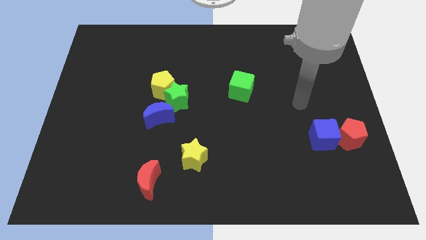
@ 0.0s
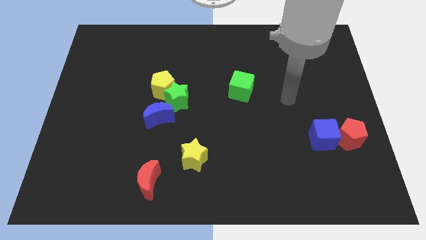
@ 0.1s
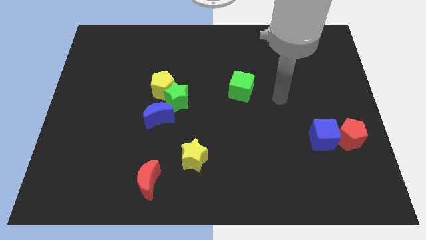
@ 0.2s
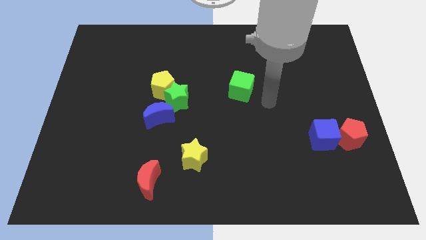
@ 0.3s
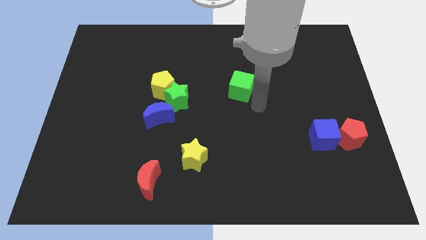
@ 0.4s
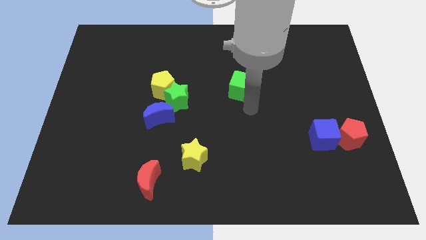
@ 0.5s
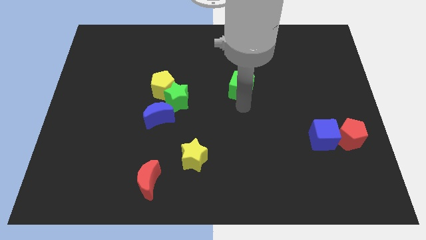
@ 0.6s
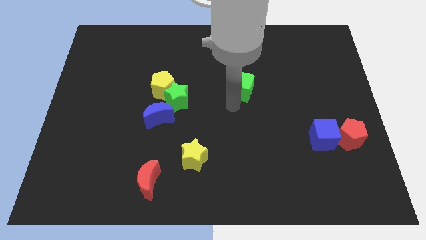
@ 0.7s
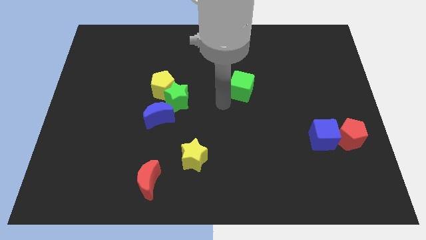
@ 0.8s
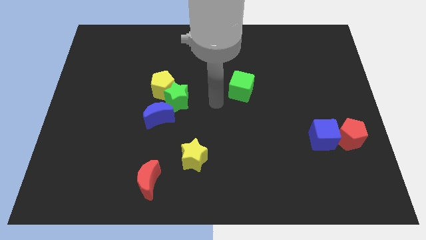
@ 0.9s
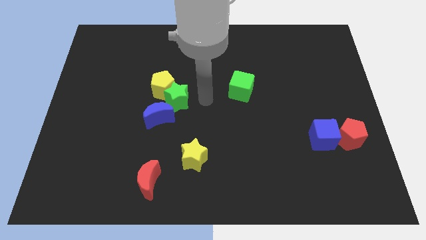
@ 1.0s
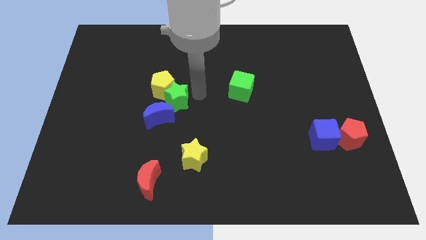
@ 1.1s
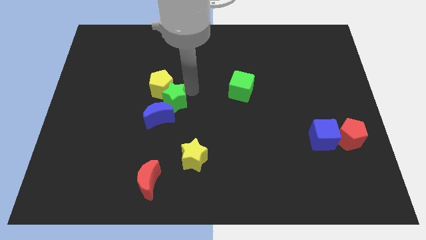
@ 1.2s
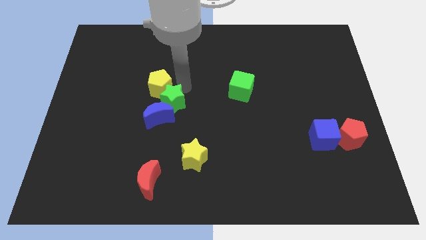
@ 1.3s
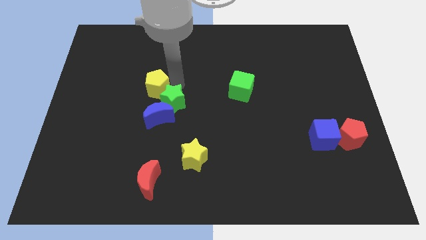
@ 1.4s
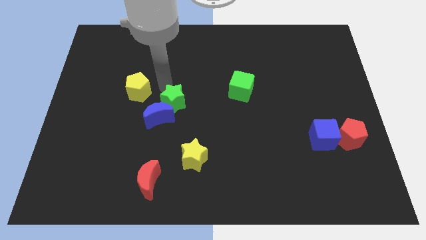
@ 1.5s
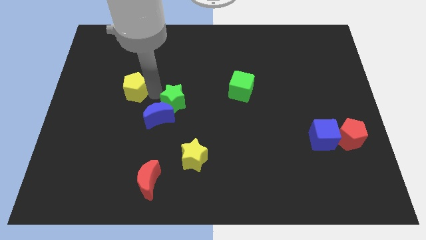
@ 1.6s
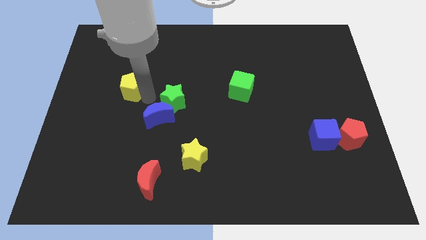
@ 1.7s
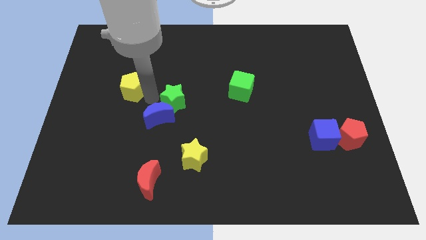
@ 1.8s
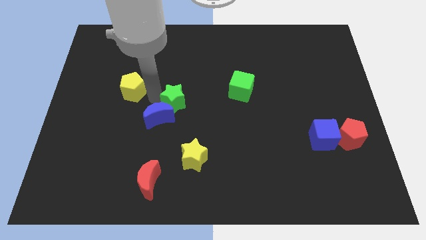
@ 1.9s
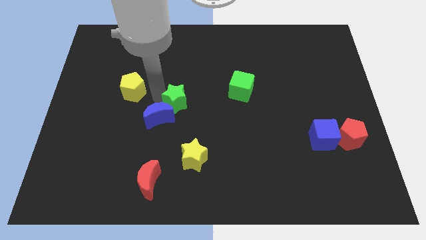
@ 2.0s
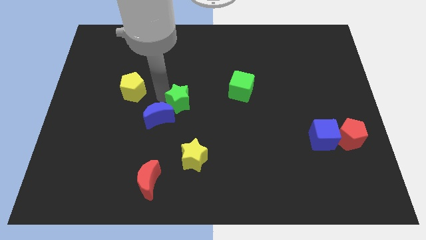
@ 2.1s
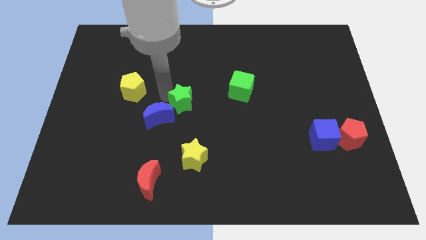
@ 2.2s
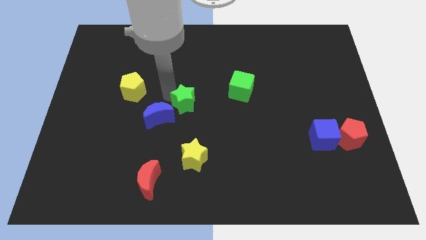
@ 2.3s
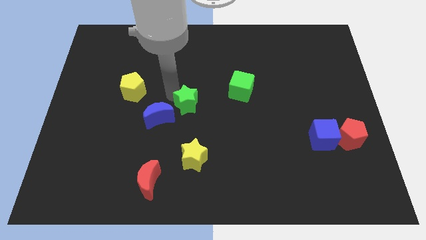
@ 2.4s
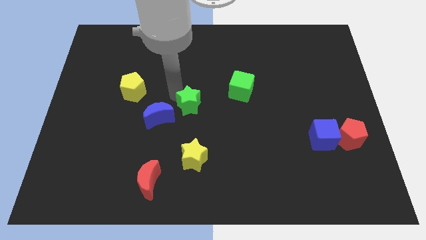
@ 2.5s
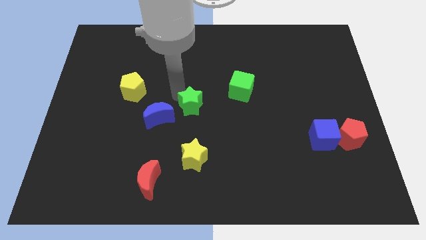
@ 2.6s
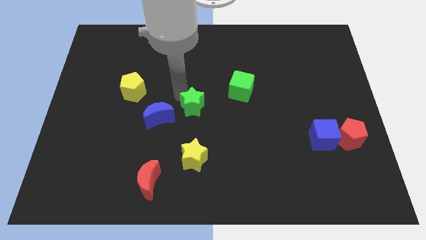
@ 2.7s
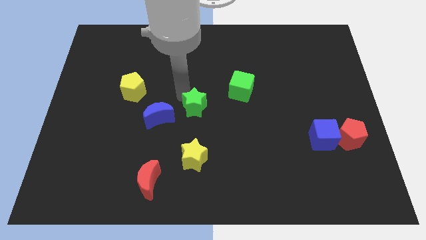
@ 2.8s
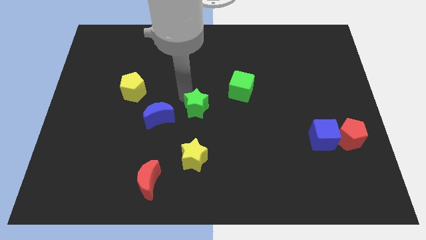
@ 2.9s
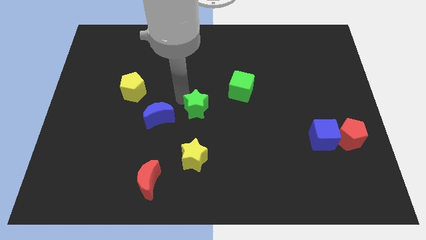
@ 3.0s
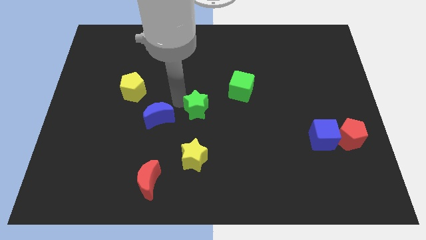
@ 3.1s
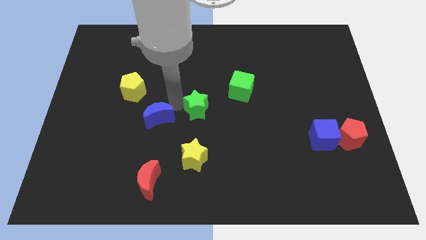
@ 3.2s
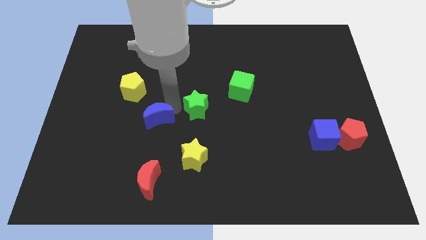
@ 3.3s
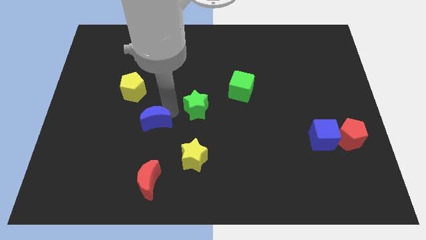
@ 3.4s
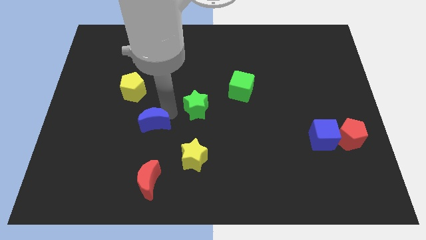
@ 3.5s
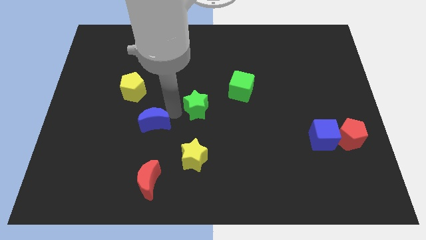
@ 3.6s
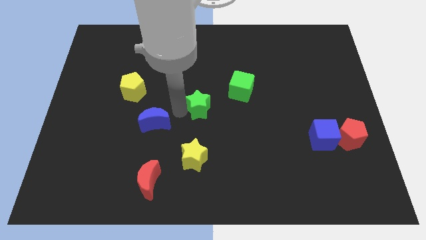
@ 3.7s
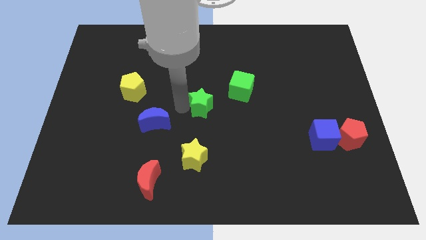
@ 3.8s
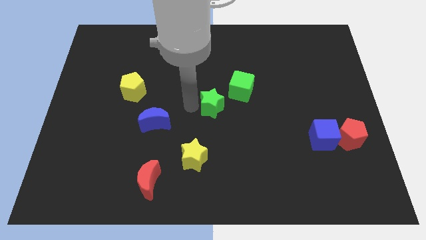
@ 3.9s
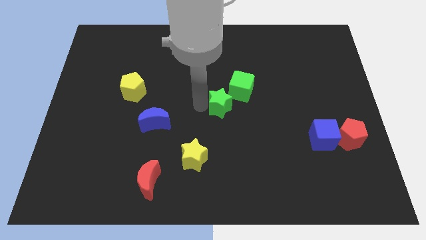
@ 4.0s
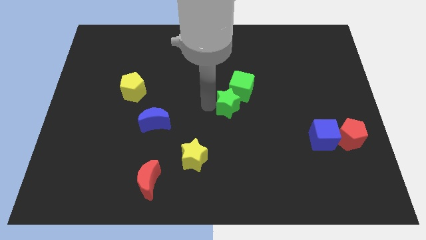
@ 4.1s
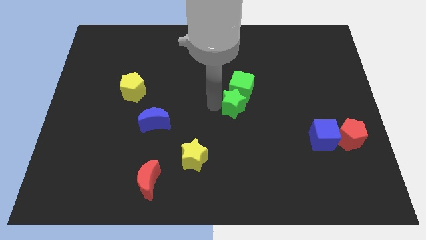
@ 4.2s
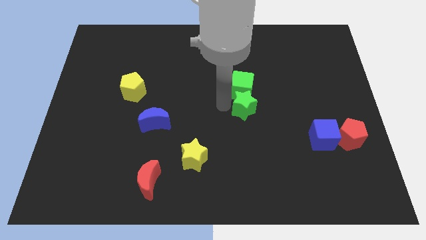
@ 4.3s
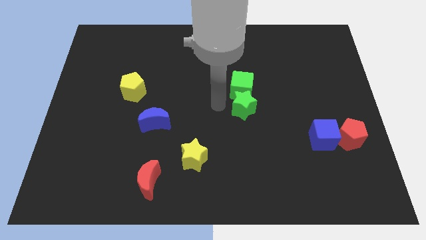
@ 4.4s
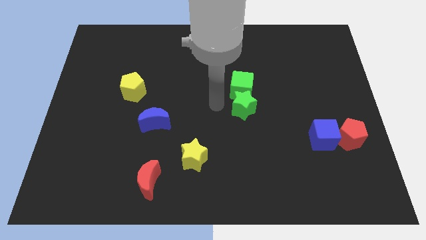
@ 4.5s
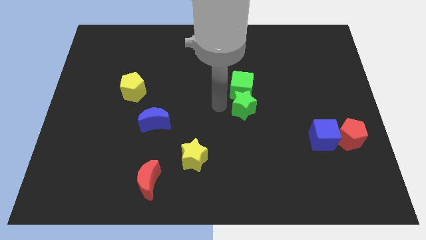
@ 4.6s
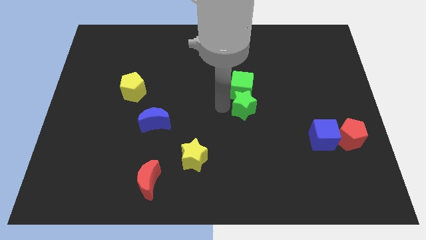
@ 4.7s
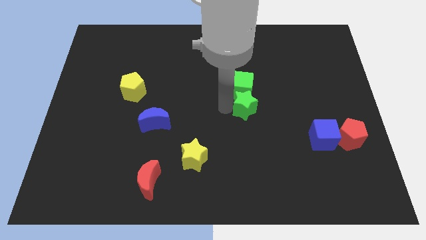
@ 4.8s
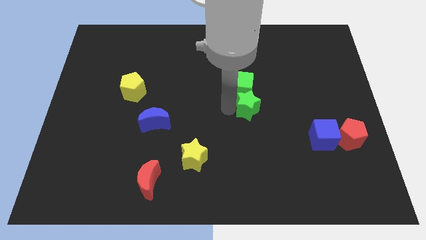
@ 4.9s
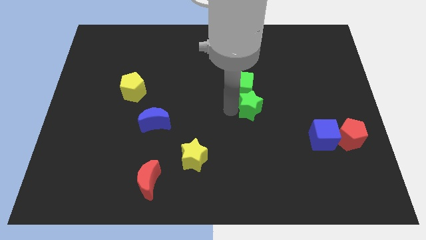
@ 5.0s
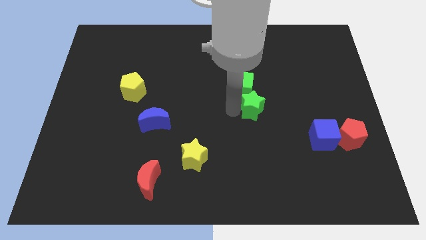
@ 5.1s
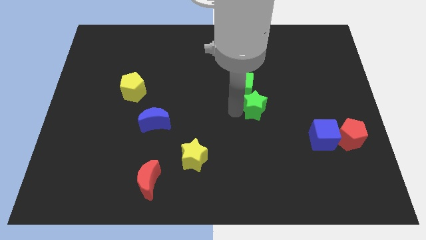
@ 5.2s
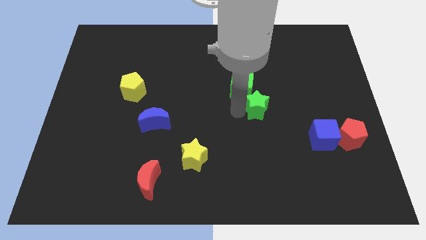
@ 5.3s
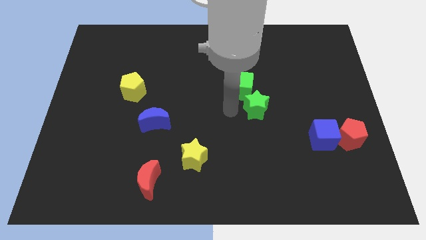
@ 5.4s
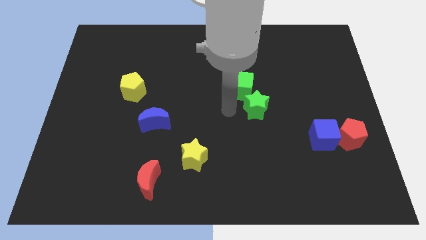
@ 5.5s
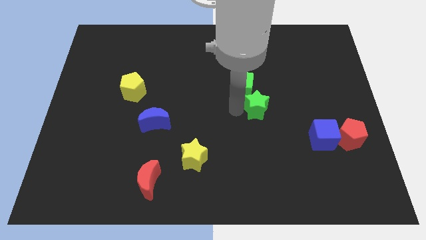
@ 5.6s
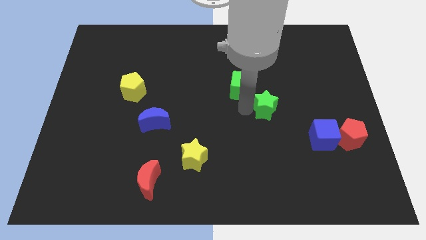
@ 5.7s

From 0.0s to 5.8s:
move the green star to the right

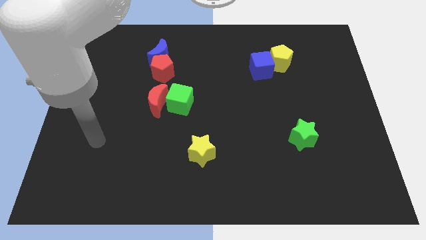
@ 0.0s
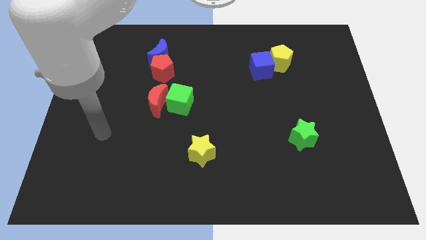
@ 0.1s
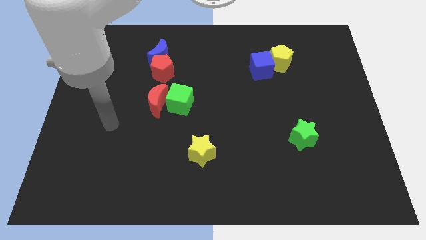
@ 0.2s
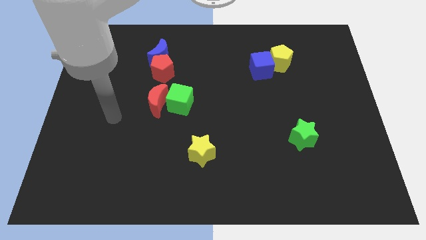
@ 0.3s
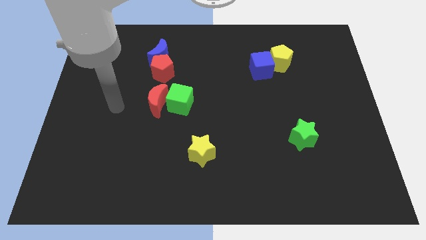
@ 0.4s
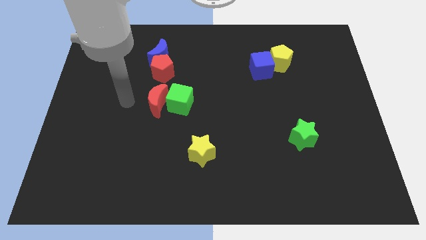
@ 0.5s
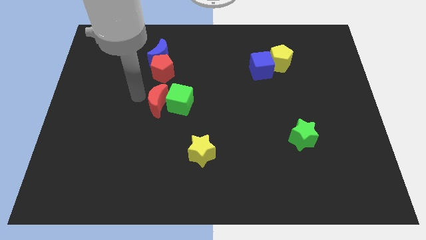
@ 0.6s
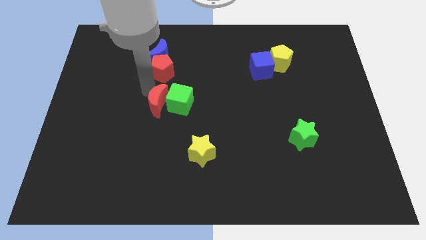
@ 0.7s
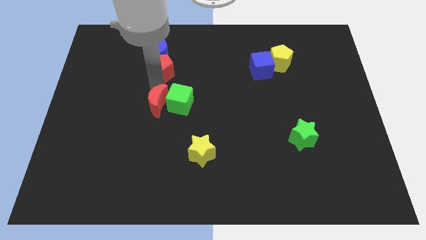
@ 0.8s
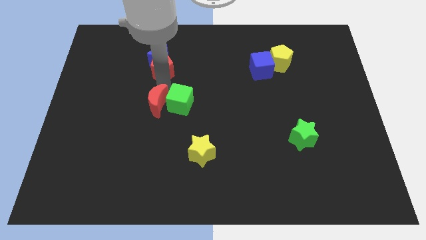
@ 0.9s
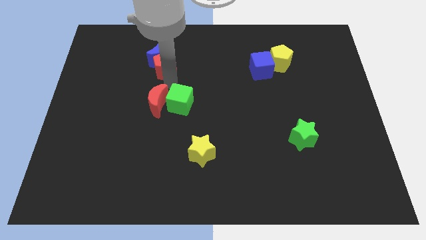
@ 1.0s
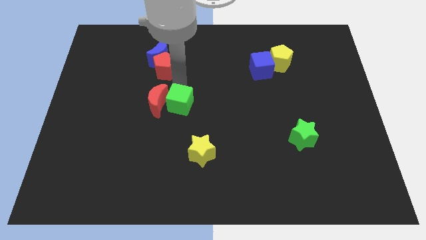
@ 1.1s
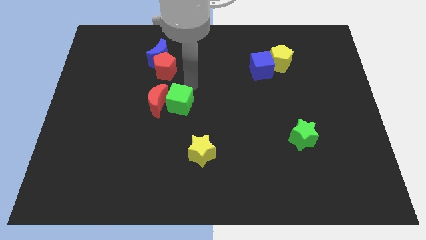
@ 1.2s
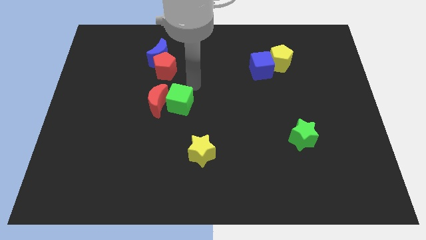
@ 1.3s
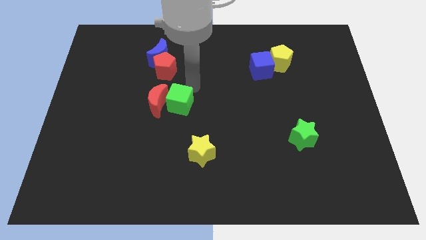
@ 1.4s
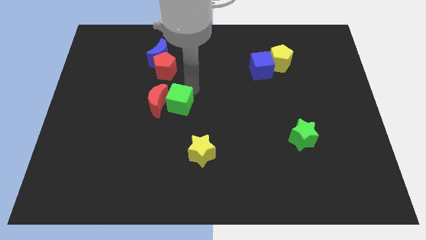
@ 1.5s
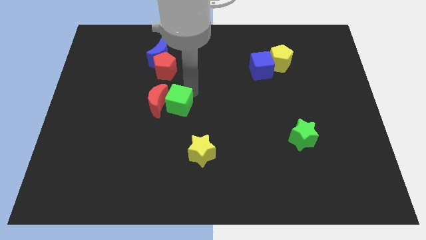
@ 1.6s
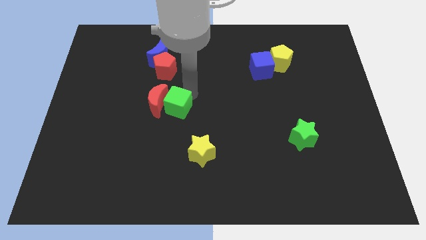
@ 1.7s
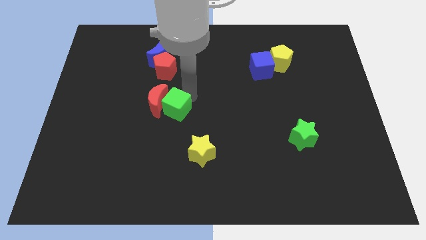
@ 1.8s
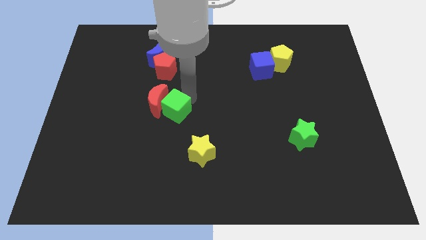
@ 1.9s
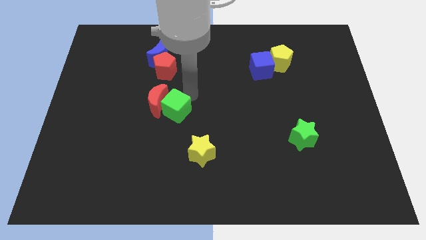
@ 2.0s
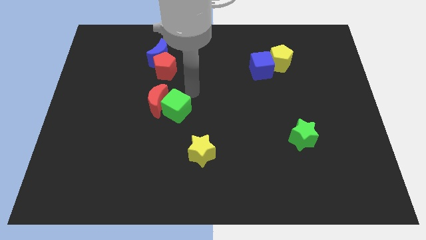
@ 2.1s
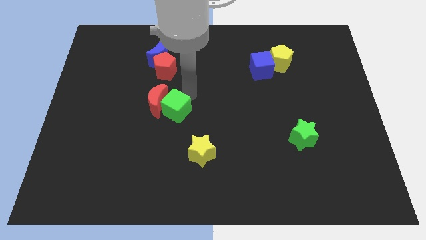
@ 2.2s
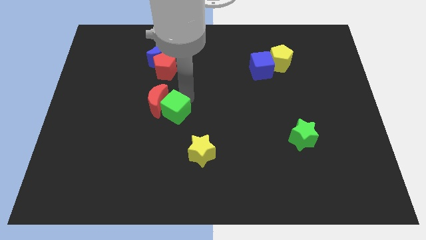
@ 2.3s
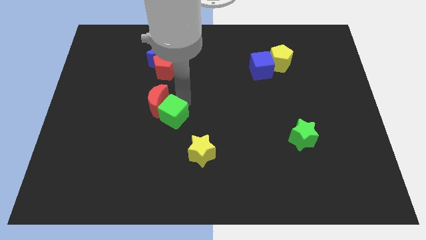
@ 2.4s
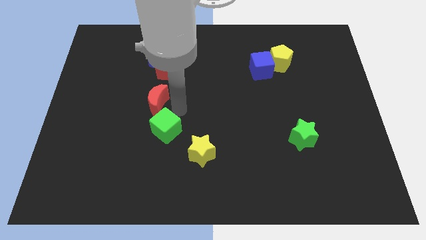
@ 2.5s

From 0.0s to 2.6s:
push the green cube down and then left a little bit
